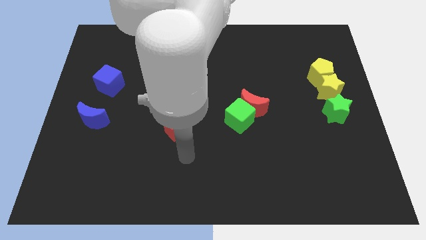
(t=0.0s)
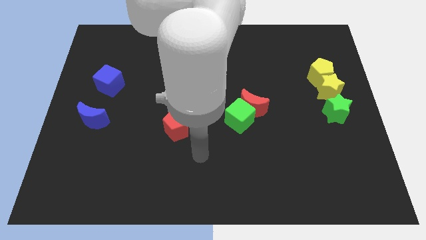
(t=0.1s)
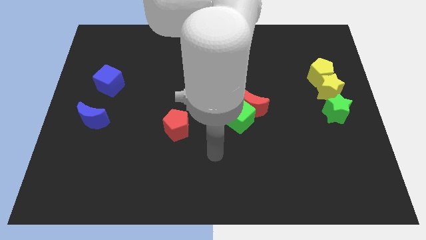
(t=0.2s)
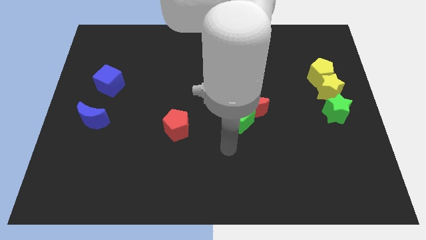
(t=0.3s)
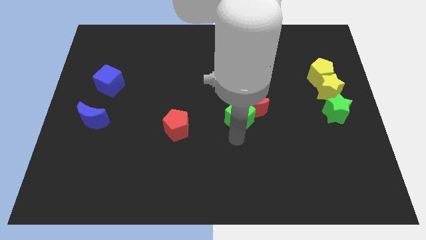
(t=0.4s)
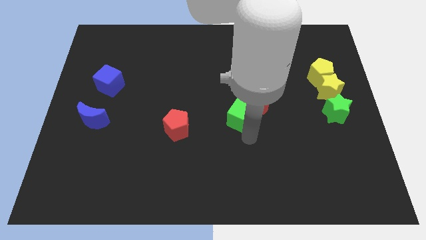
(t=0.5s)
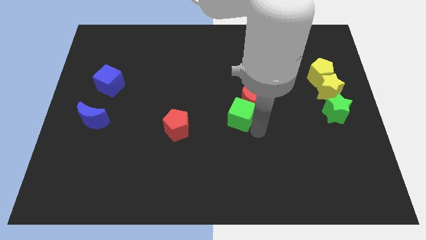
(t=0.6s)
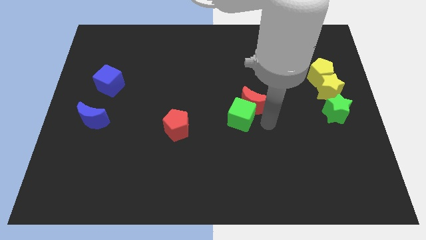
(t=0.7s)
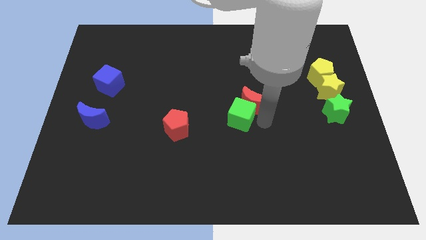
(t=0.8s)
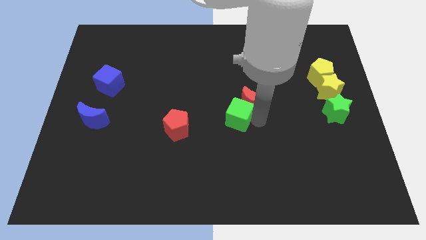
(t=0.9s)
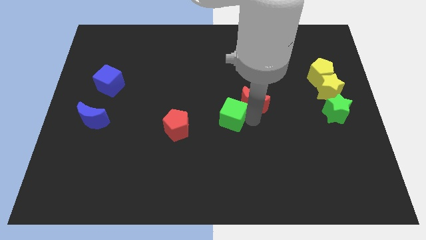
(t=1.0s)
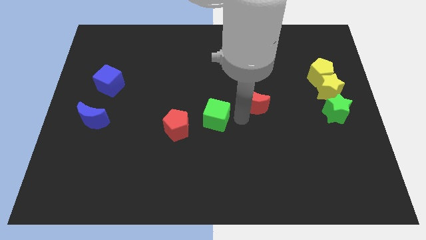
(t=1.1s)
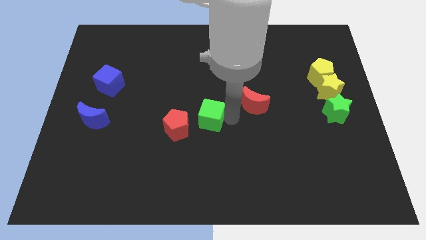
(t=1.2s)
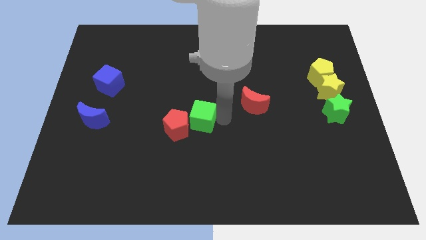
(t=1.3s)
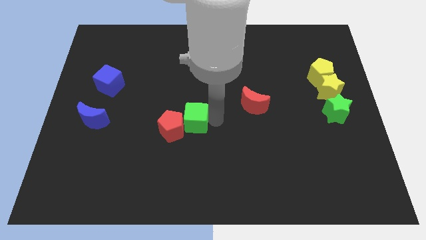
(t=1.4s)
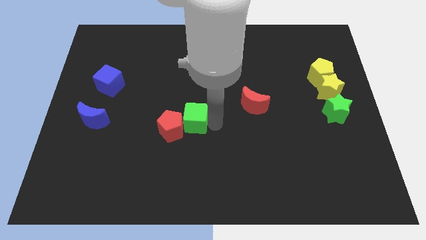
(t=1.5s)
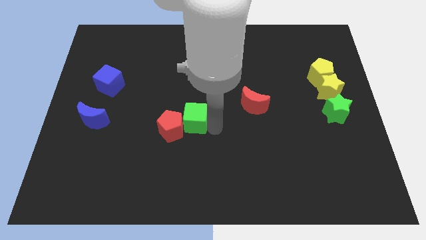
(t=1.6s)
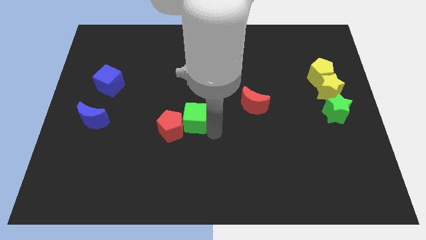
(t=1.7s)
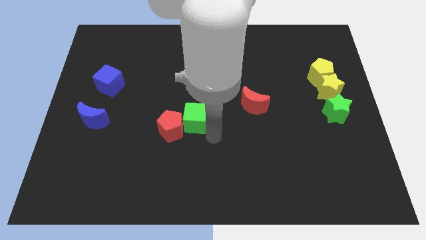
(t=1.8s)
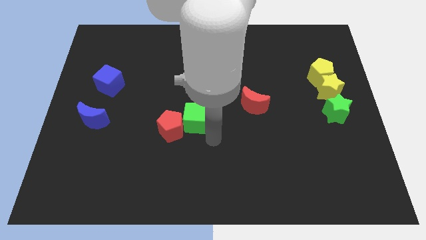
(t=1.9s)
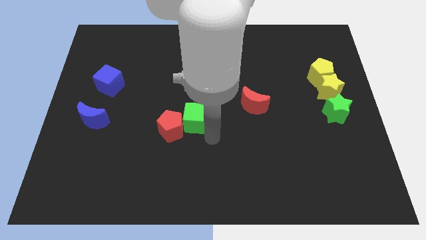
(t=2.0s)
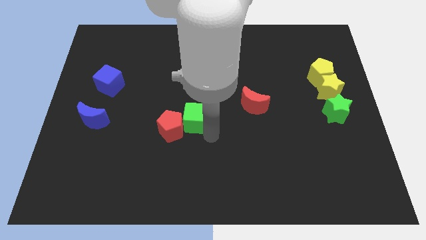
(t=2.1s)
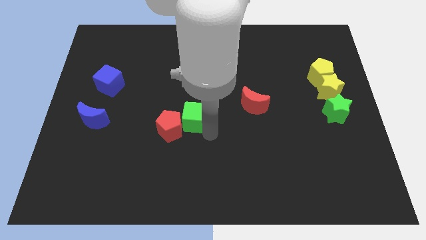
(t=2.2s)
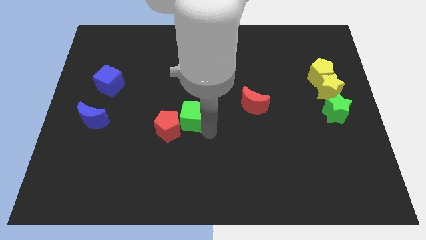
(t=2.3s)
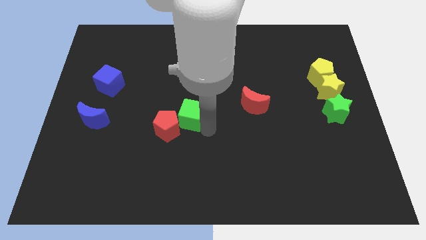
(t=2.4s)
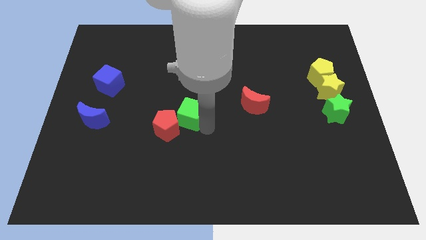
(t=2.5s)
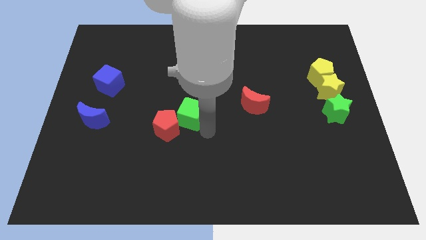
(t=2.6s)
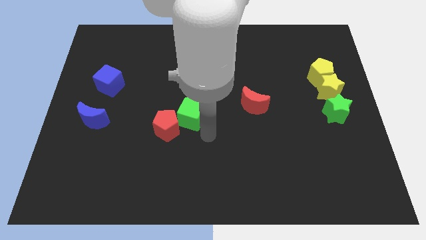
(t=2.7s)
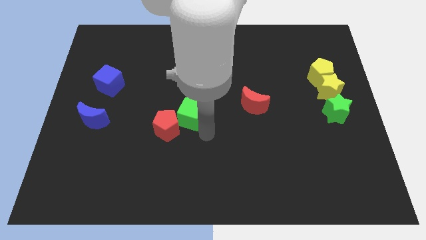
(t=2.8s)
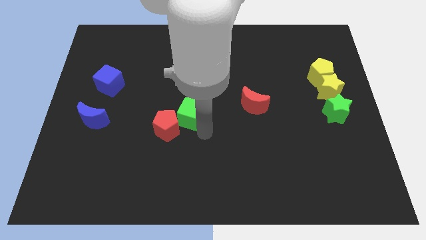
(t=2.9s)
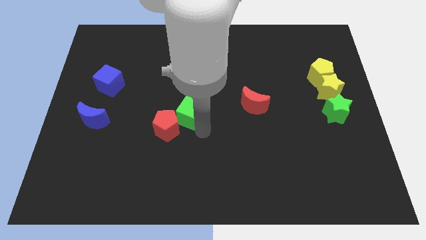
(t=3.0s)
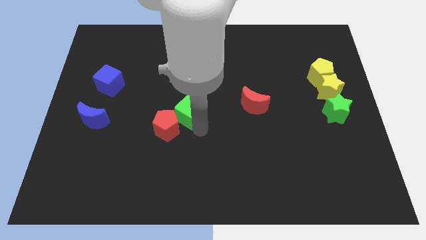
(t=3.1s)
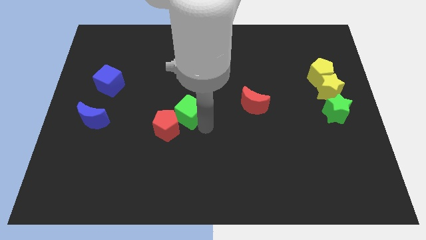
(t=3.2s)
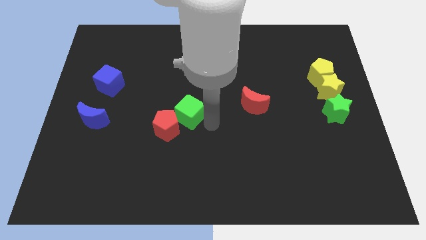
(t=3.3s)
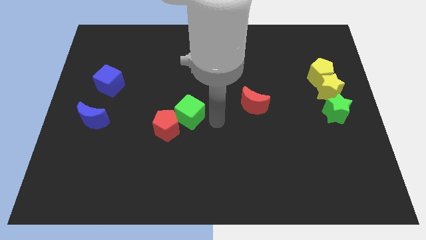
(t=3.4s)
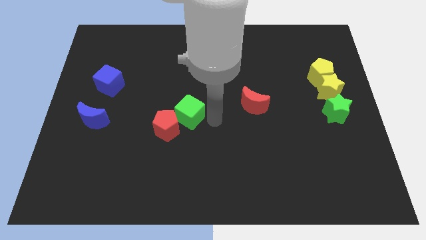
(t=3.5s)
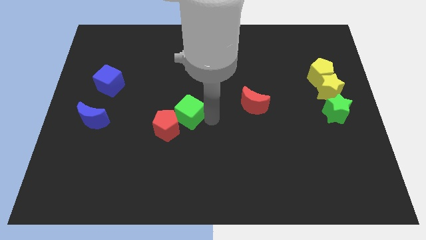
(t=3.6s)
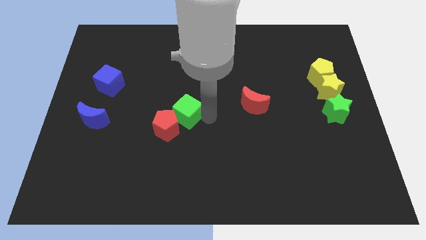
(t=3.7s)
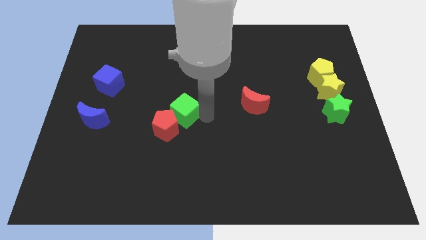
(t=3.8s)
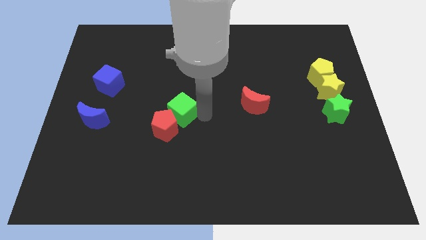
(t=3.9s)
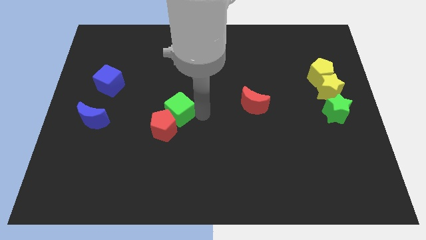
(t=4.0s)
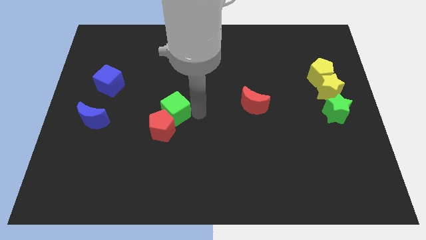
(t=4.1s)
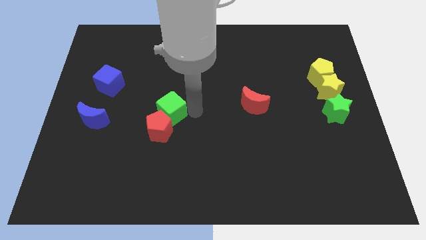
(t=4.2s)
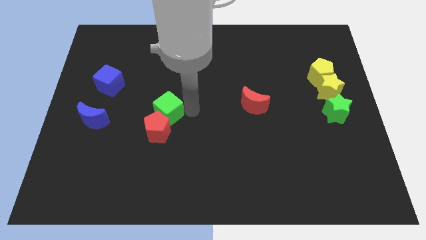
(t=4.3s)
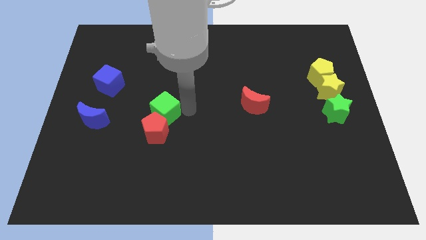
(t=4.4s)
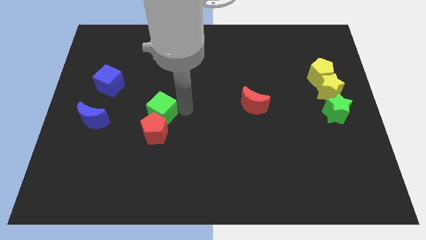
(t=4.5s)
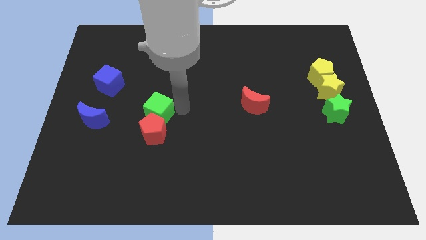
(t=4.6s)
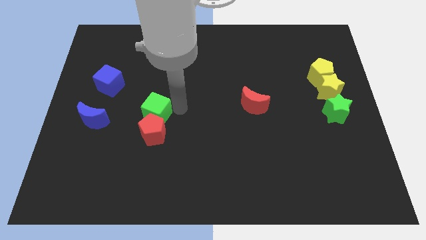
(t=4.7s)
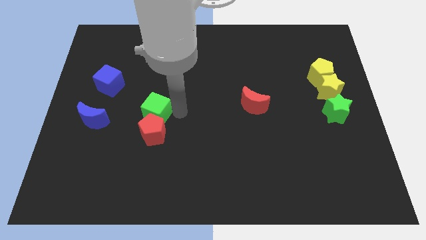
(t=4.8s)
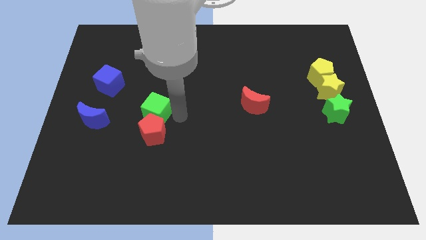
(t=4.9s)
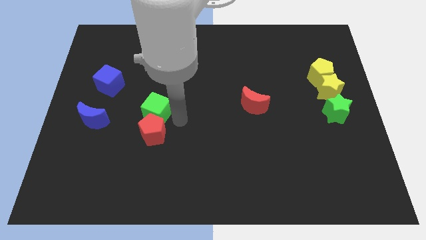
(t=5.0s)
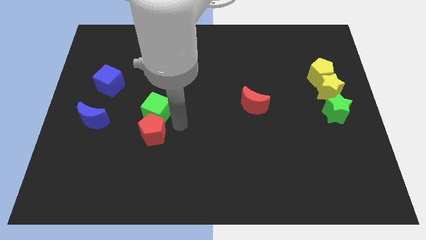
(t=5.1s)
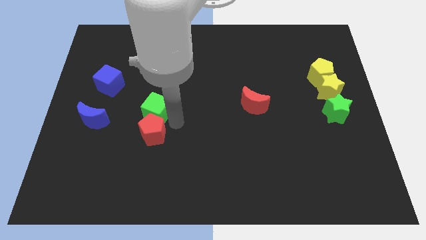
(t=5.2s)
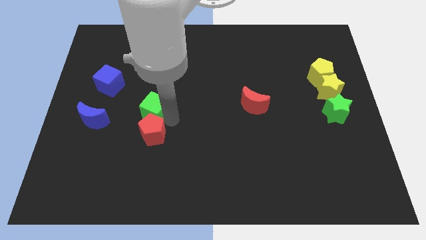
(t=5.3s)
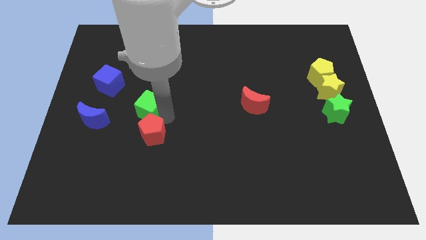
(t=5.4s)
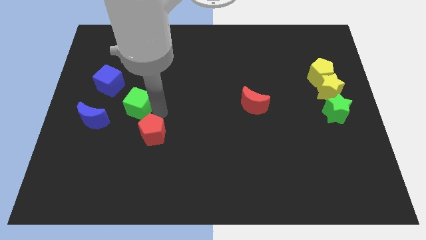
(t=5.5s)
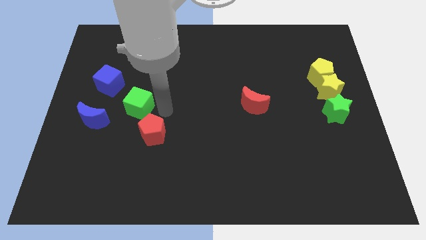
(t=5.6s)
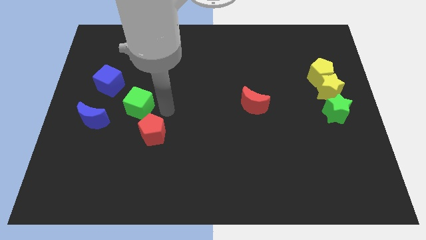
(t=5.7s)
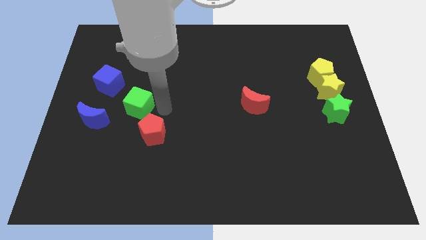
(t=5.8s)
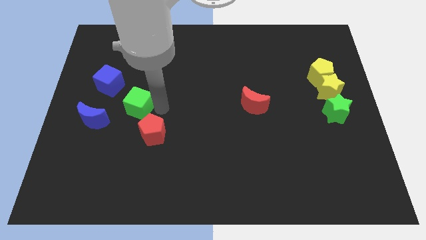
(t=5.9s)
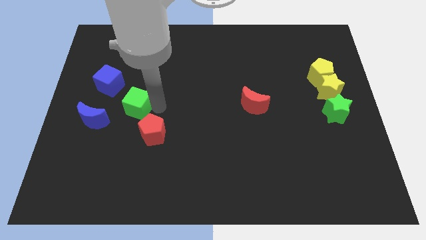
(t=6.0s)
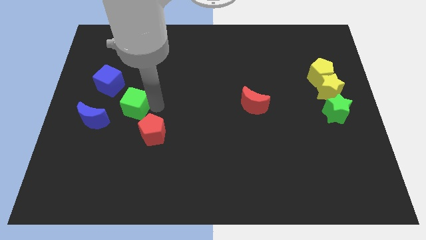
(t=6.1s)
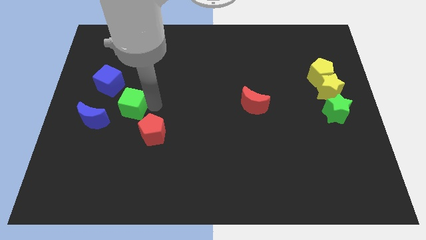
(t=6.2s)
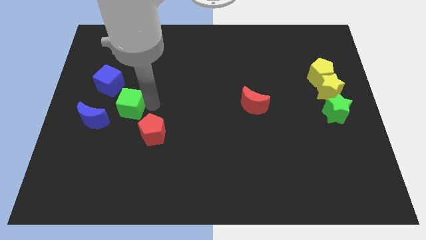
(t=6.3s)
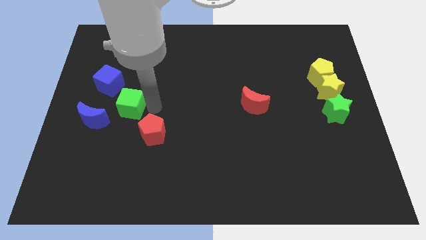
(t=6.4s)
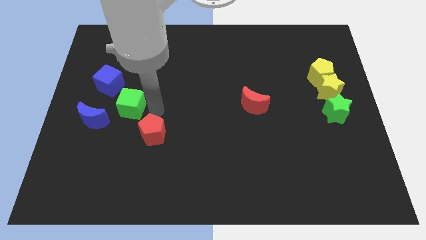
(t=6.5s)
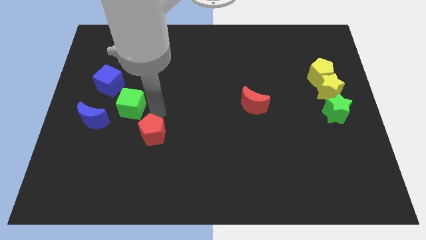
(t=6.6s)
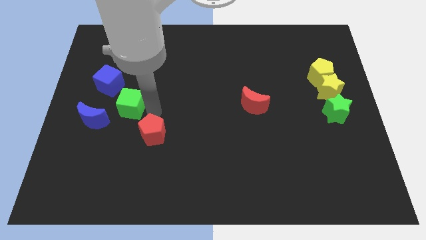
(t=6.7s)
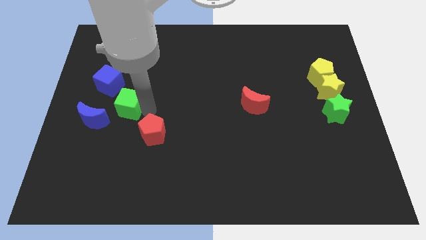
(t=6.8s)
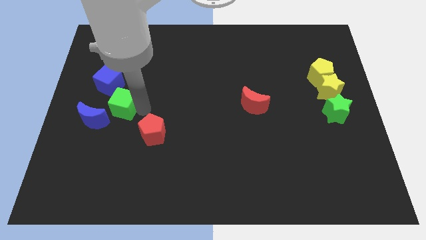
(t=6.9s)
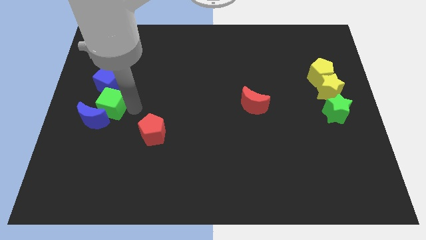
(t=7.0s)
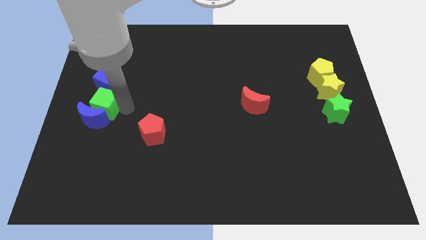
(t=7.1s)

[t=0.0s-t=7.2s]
put the green cube to the center left
